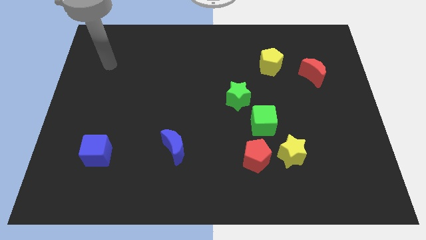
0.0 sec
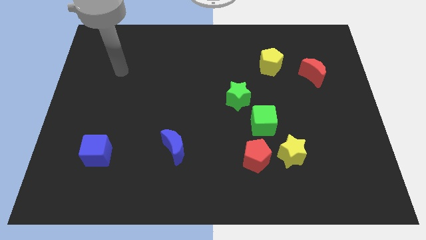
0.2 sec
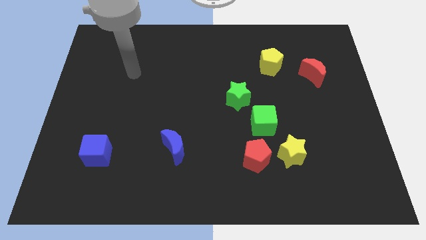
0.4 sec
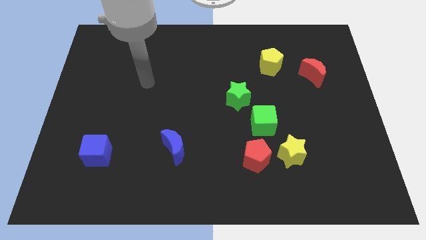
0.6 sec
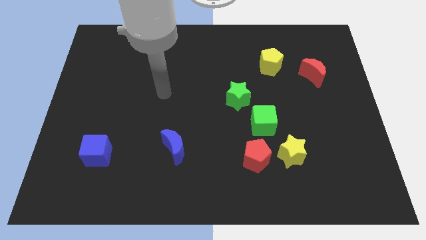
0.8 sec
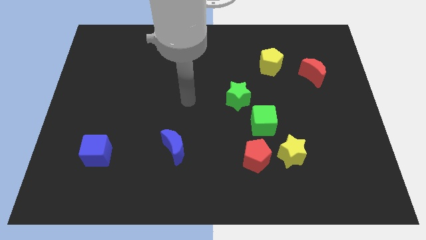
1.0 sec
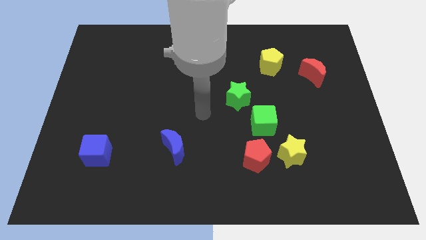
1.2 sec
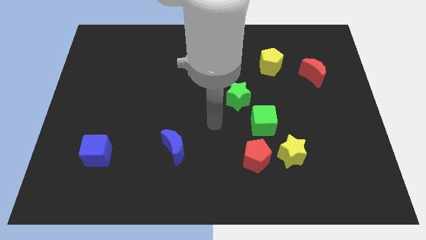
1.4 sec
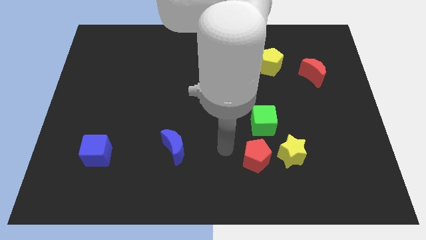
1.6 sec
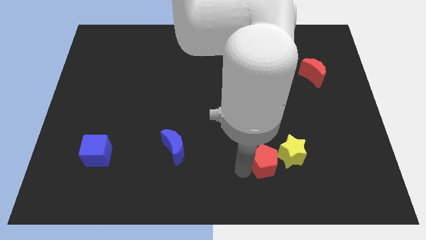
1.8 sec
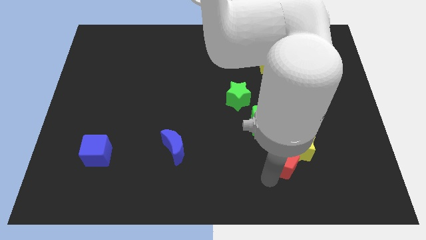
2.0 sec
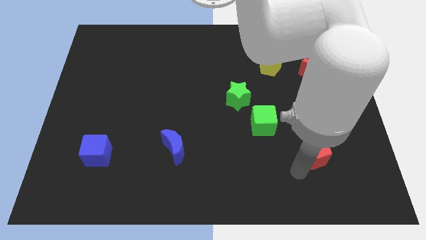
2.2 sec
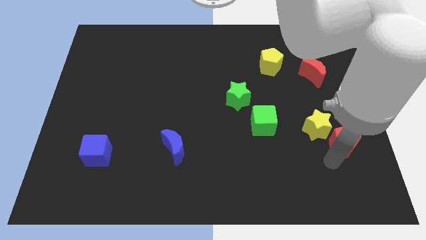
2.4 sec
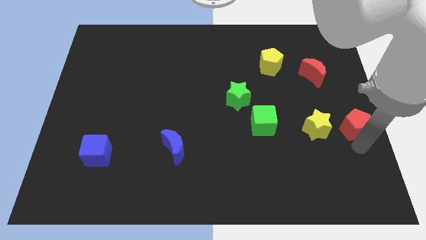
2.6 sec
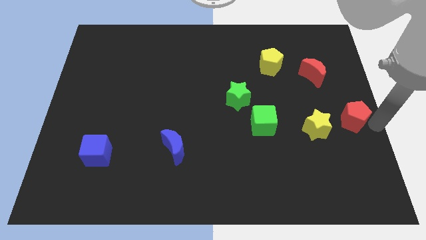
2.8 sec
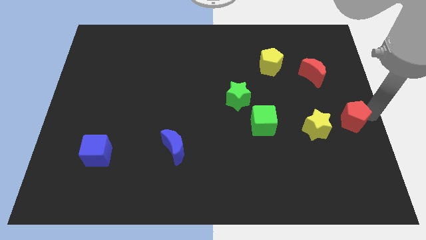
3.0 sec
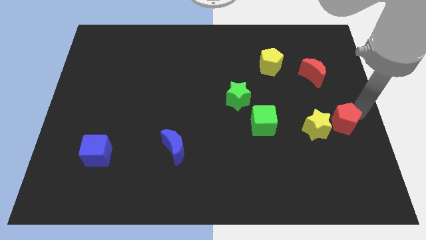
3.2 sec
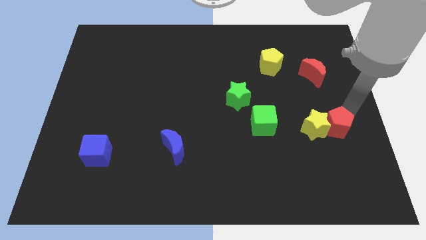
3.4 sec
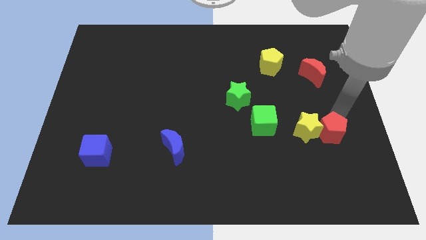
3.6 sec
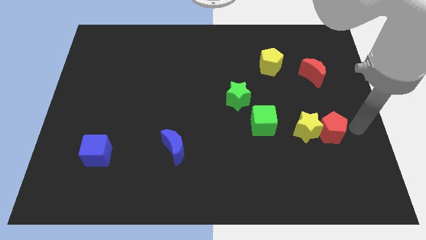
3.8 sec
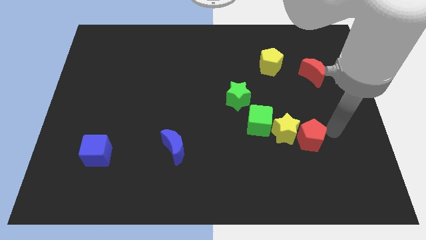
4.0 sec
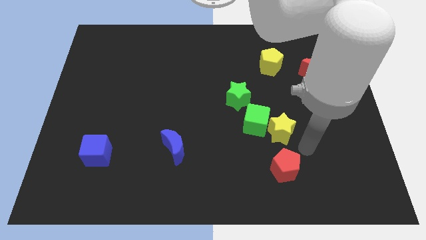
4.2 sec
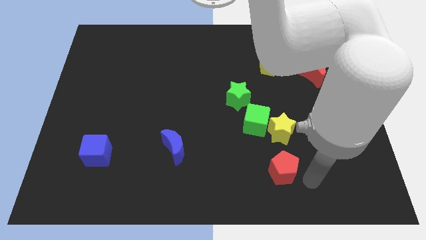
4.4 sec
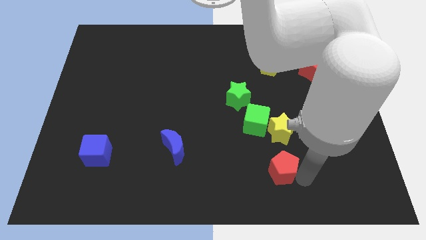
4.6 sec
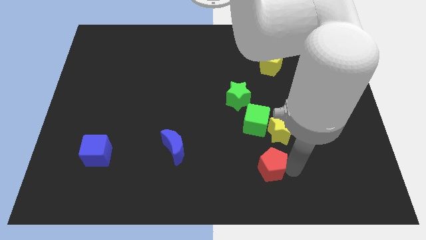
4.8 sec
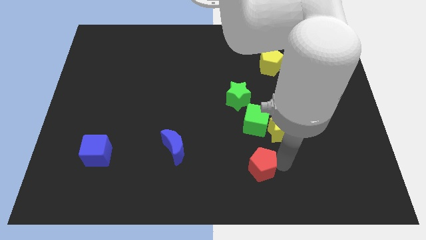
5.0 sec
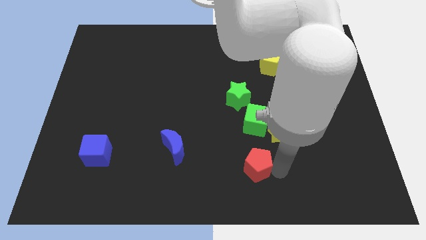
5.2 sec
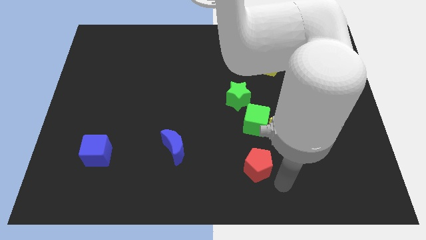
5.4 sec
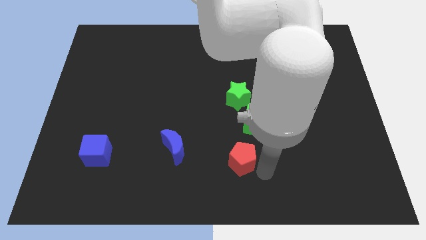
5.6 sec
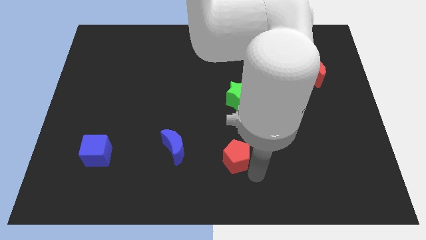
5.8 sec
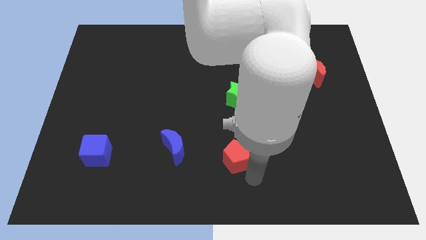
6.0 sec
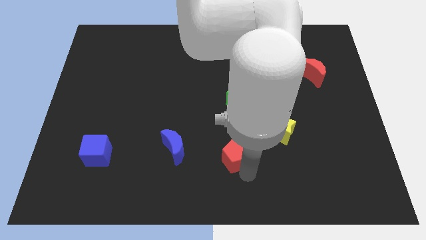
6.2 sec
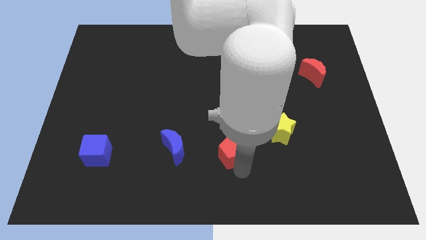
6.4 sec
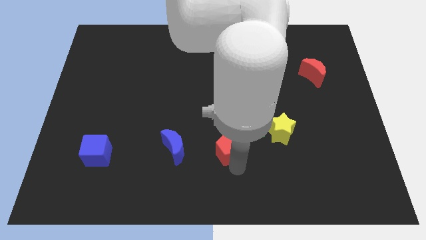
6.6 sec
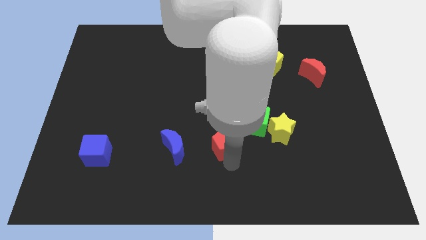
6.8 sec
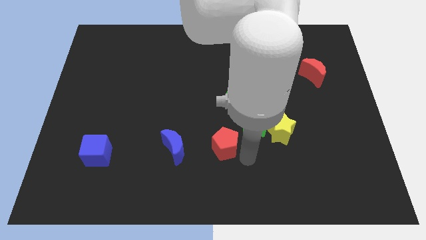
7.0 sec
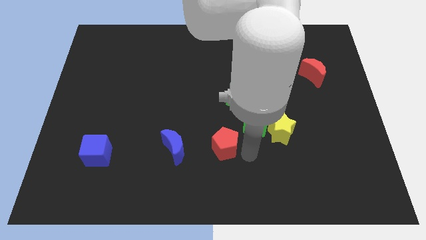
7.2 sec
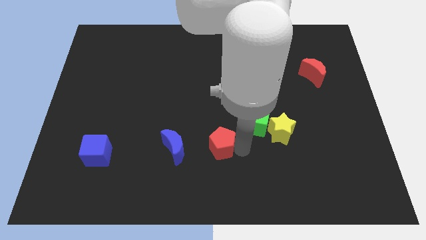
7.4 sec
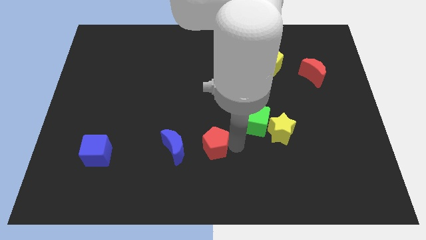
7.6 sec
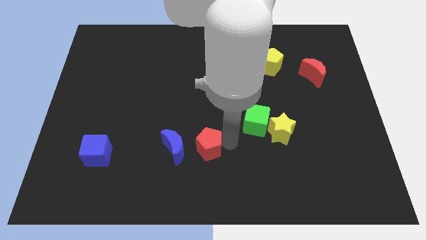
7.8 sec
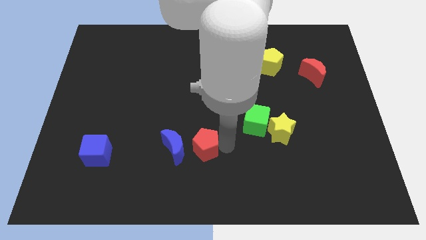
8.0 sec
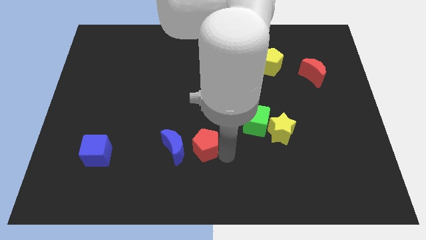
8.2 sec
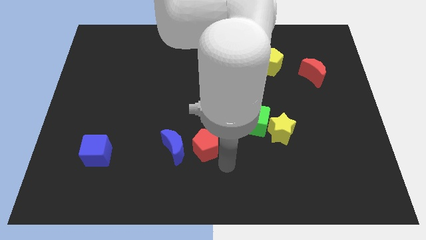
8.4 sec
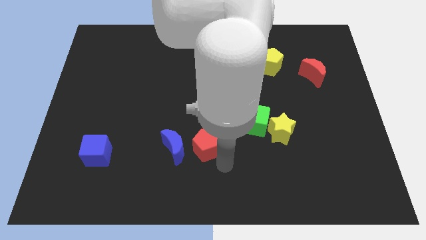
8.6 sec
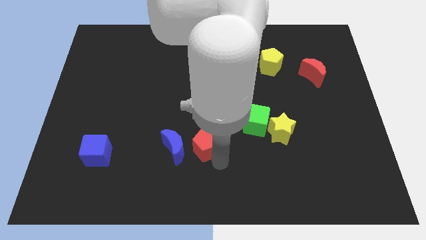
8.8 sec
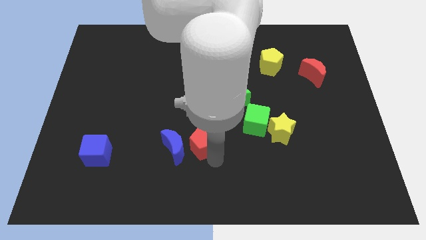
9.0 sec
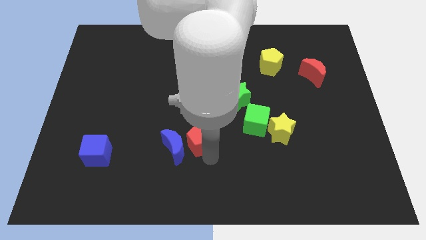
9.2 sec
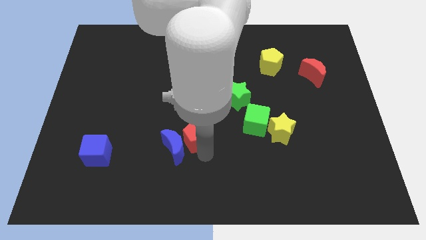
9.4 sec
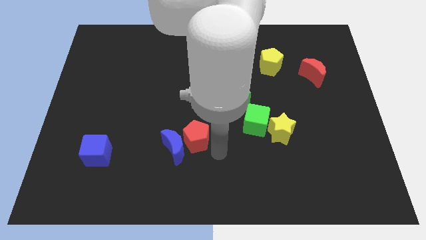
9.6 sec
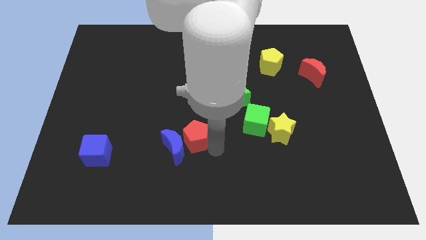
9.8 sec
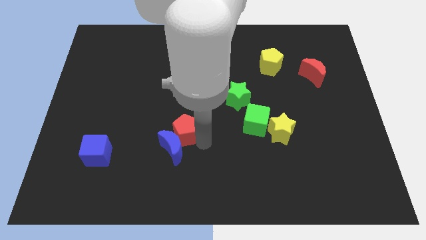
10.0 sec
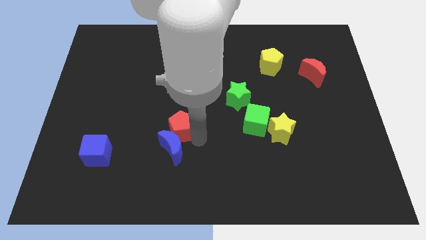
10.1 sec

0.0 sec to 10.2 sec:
slide the red pentagon diagonally up and to the left of the blue moon

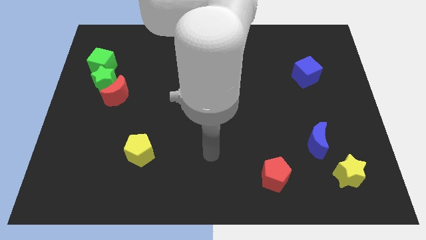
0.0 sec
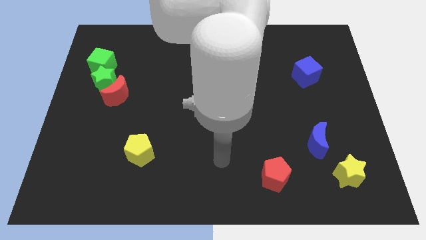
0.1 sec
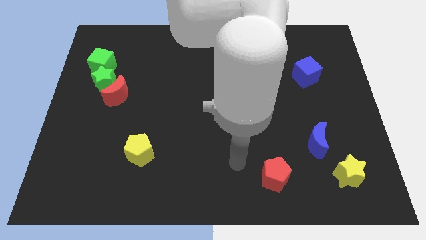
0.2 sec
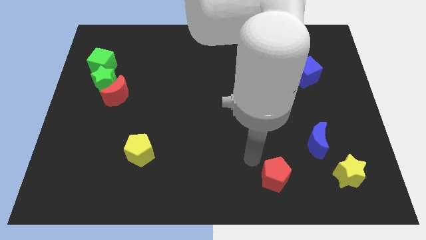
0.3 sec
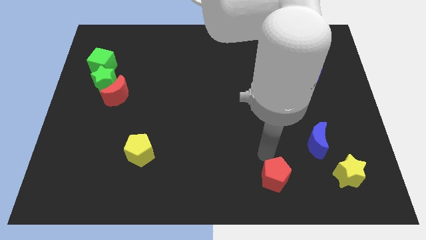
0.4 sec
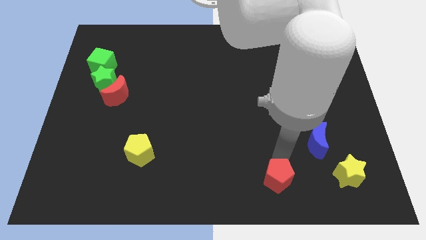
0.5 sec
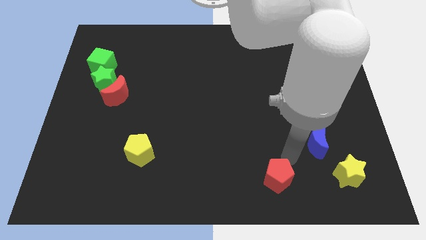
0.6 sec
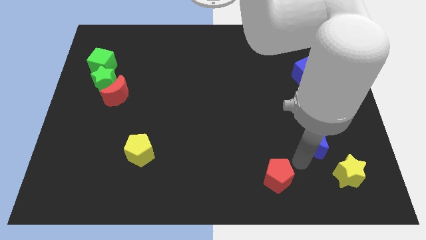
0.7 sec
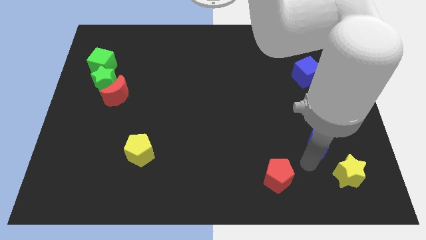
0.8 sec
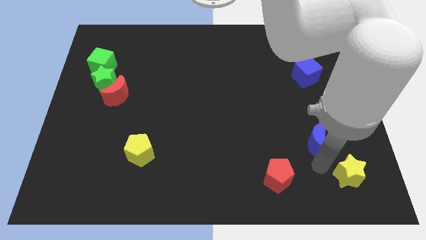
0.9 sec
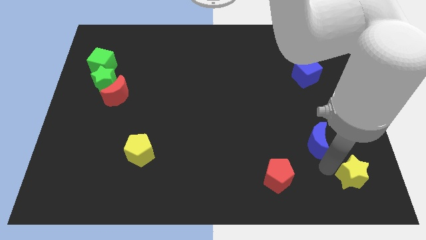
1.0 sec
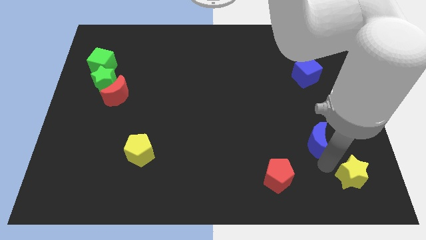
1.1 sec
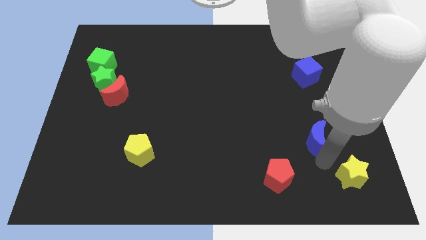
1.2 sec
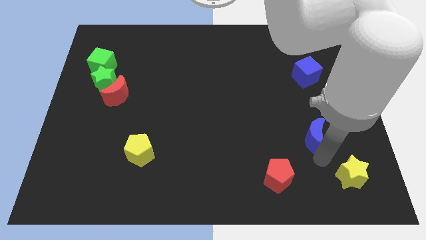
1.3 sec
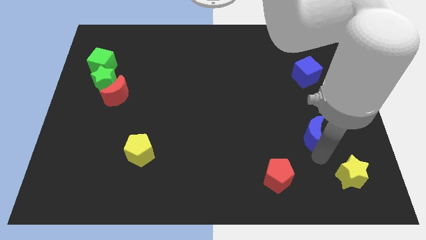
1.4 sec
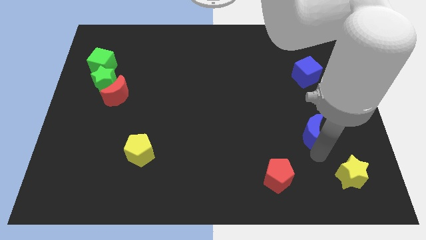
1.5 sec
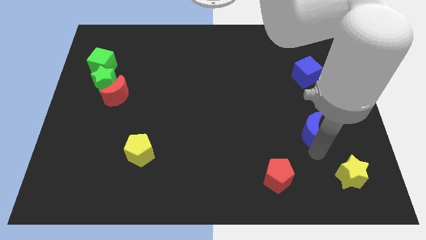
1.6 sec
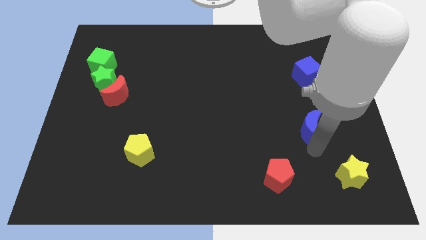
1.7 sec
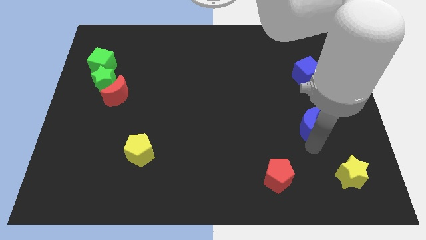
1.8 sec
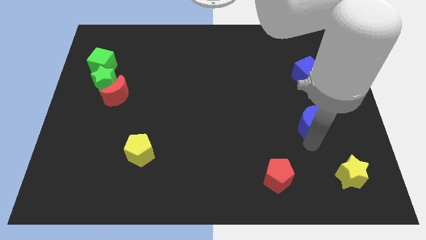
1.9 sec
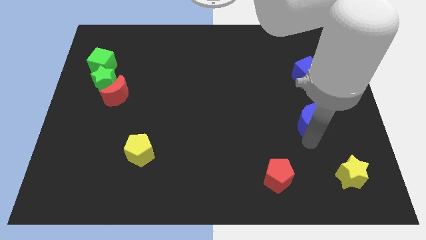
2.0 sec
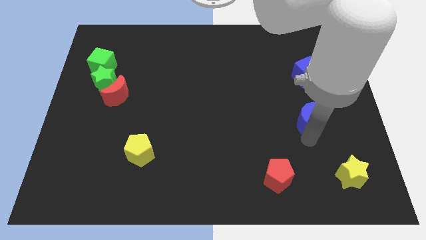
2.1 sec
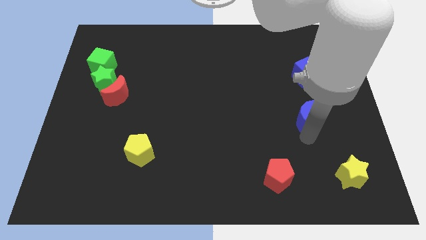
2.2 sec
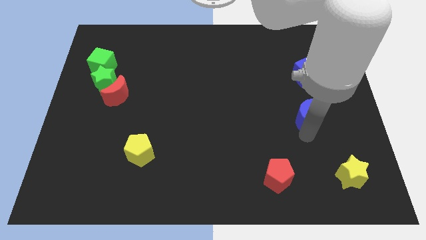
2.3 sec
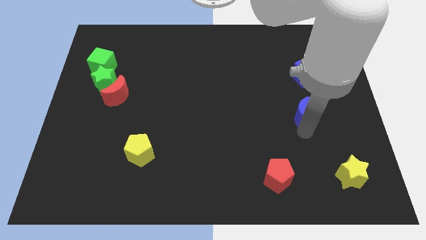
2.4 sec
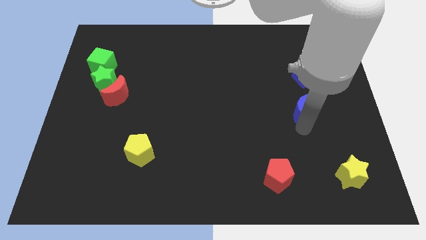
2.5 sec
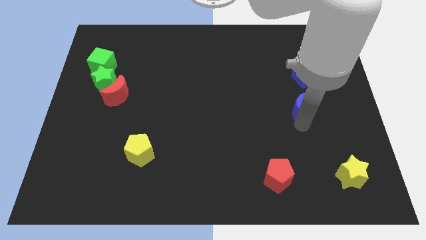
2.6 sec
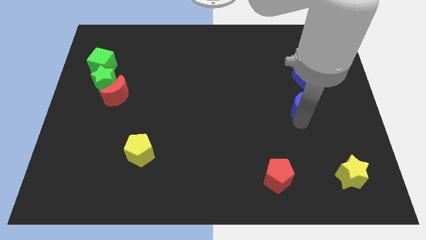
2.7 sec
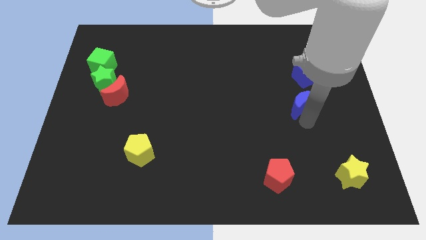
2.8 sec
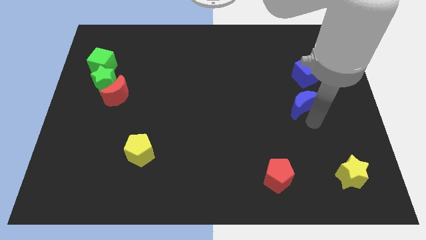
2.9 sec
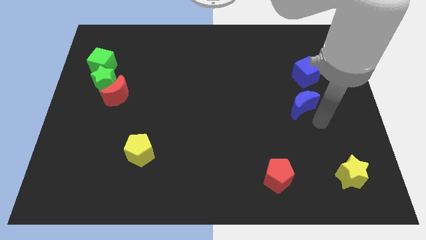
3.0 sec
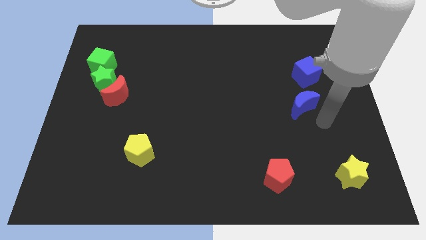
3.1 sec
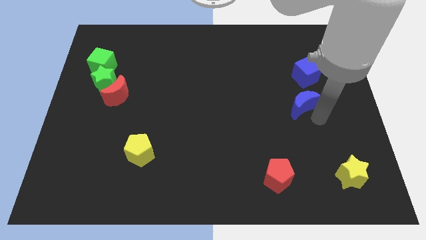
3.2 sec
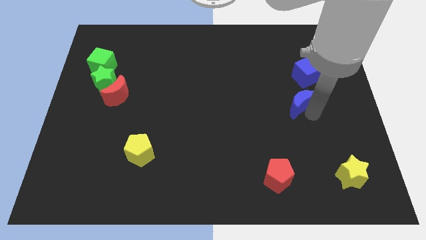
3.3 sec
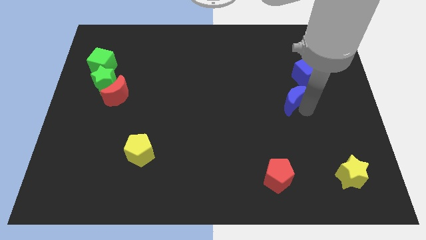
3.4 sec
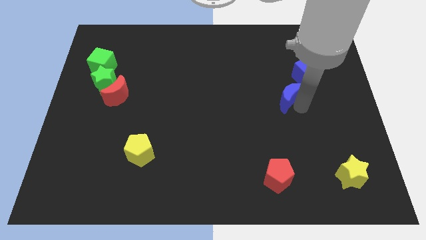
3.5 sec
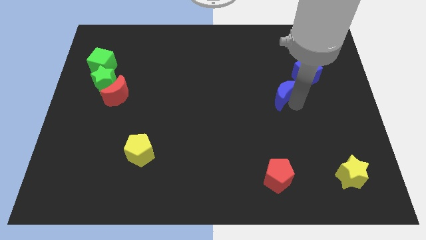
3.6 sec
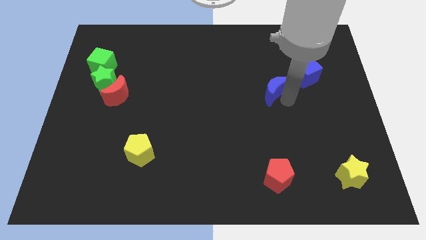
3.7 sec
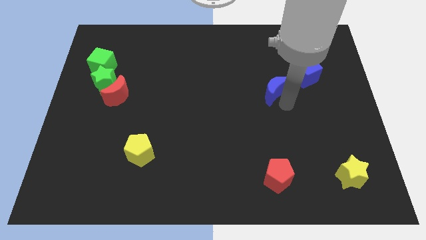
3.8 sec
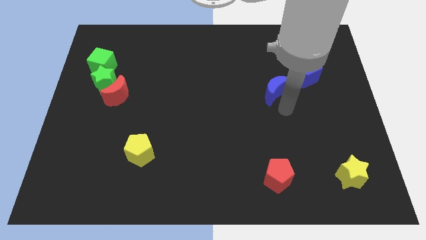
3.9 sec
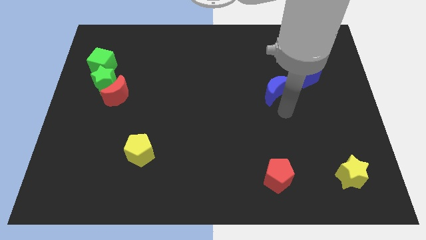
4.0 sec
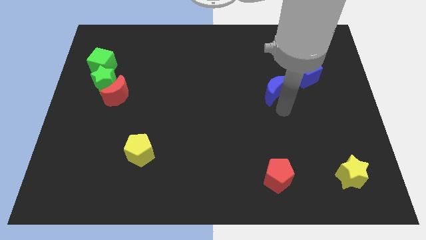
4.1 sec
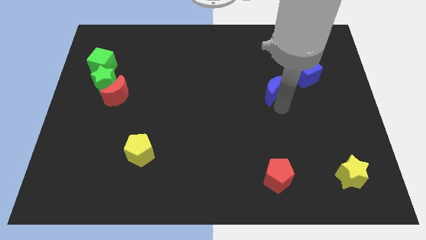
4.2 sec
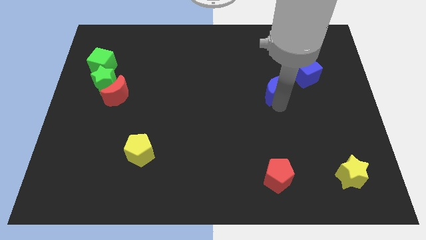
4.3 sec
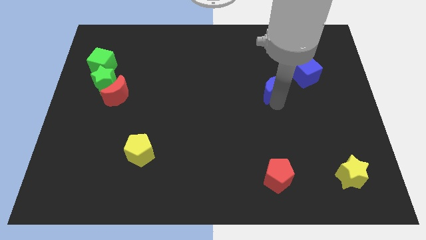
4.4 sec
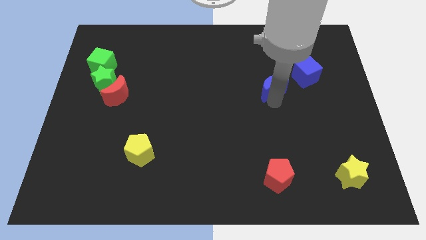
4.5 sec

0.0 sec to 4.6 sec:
slide the blue moon to the left side of the blue cube
